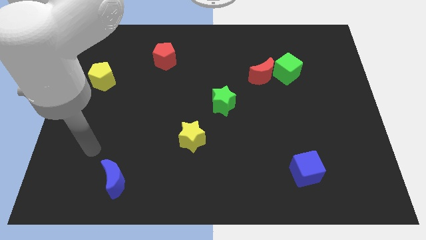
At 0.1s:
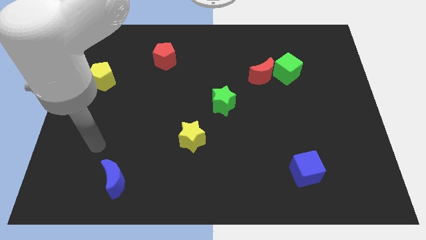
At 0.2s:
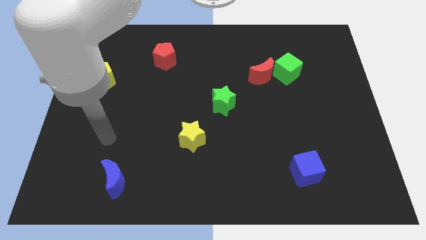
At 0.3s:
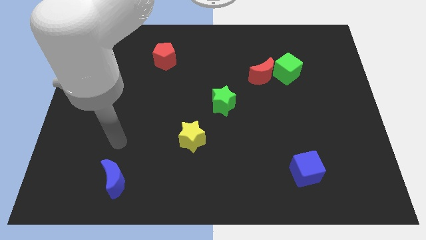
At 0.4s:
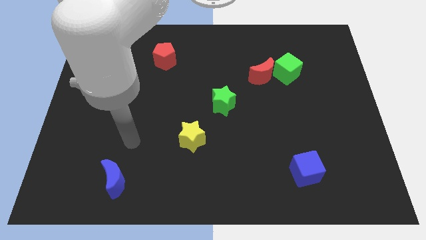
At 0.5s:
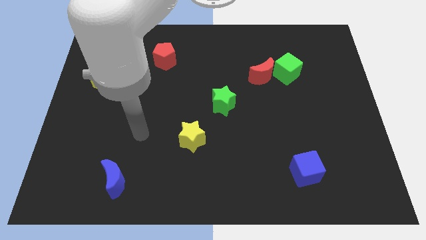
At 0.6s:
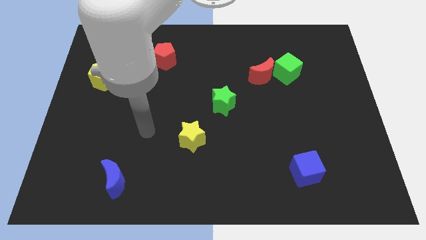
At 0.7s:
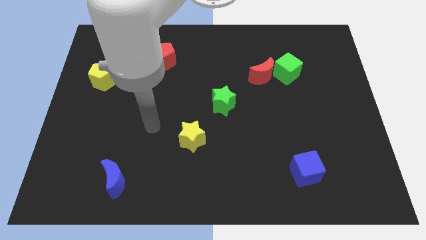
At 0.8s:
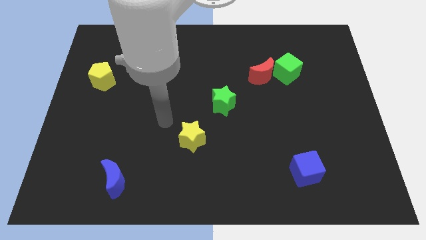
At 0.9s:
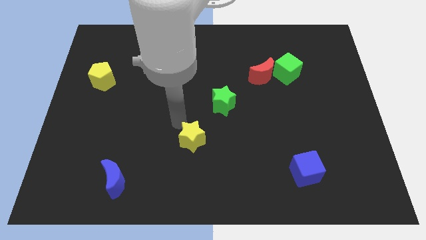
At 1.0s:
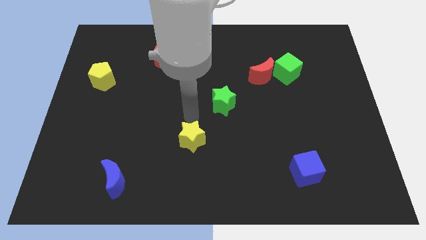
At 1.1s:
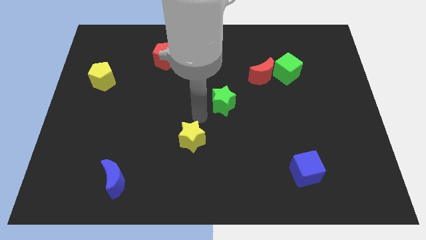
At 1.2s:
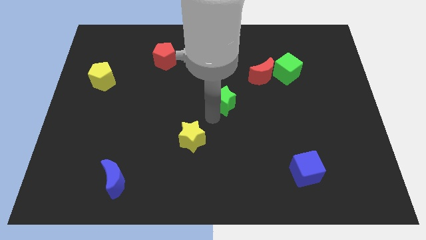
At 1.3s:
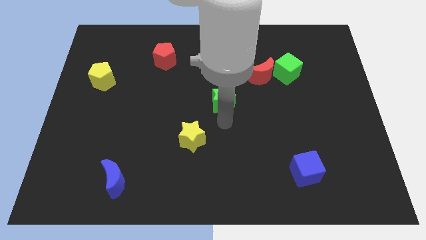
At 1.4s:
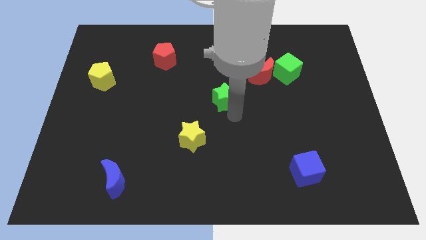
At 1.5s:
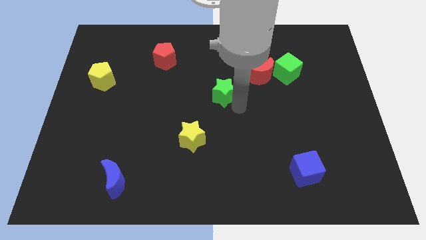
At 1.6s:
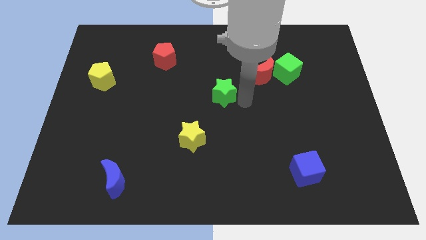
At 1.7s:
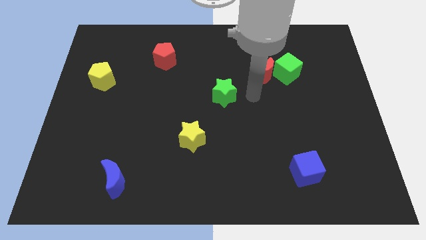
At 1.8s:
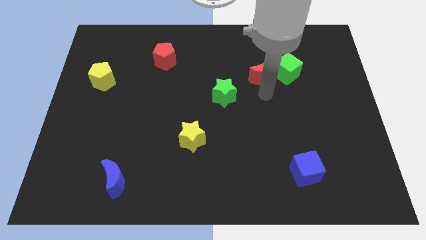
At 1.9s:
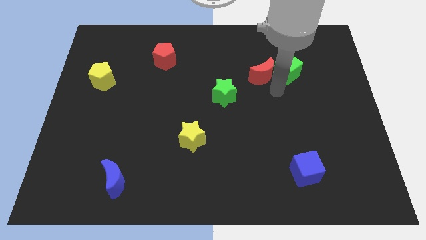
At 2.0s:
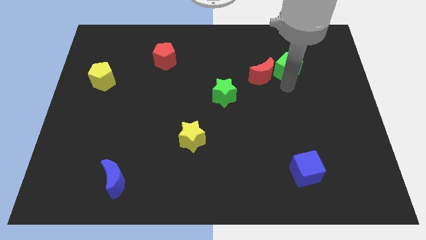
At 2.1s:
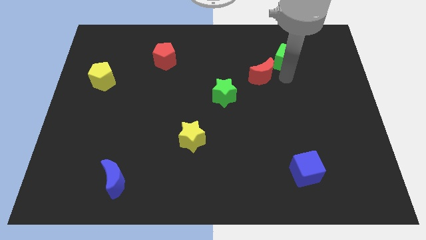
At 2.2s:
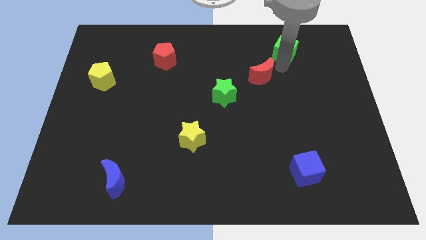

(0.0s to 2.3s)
separate the red moon from the green cube

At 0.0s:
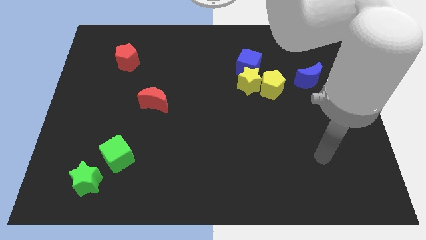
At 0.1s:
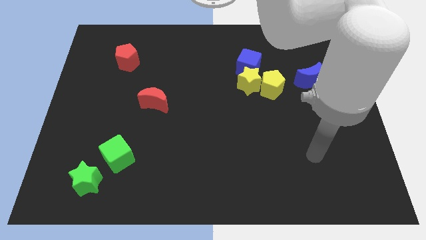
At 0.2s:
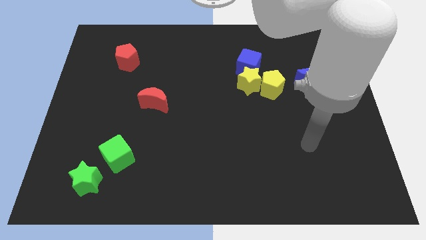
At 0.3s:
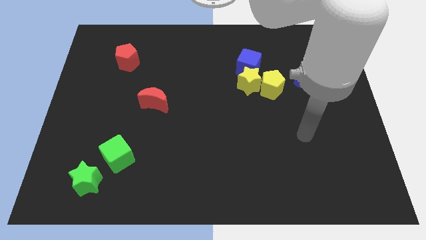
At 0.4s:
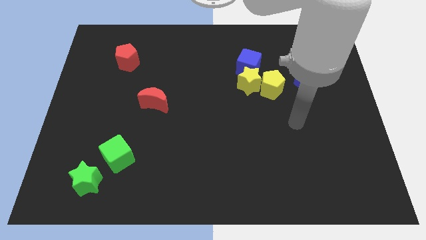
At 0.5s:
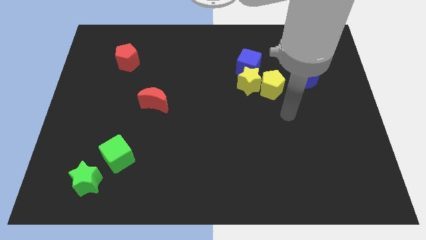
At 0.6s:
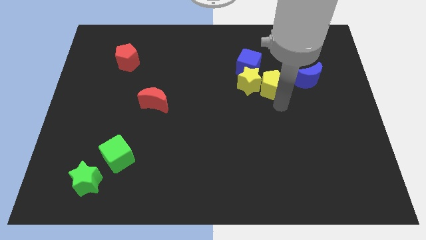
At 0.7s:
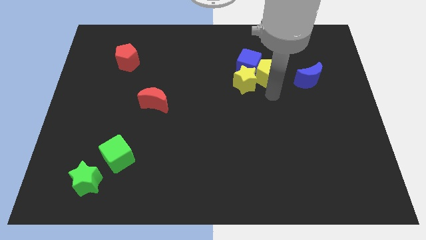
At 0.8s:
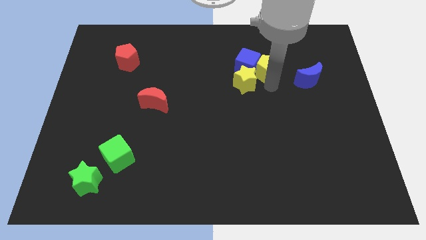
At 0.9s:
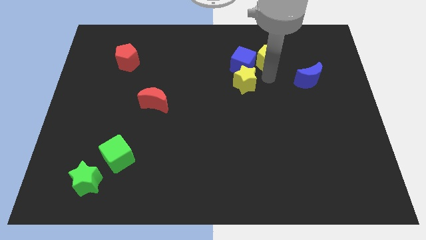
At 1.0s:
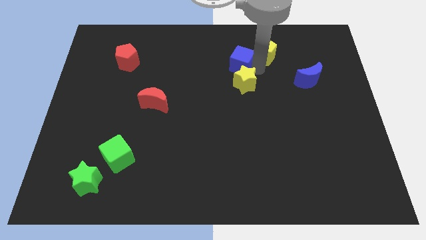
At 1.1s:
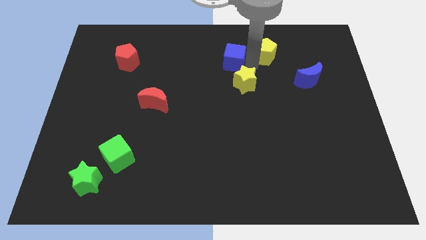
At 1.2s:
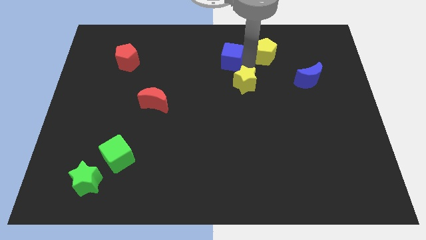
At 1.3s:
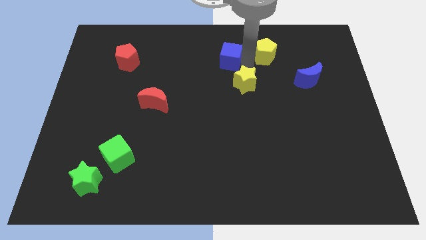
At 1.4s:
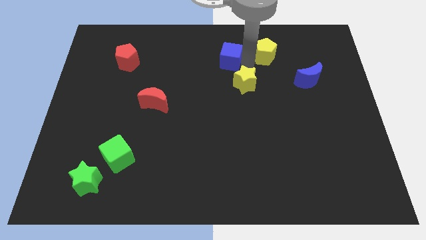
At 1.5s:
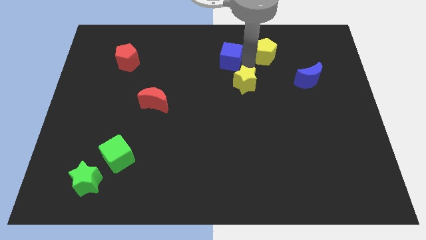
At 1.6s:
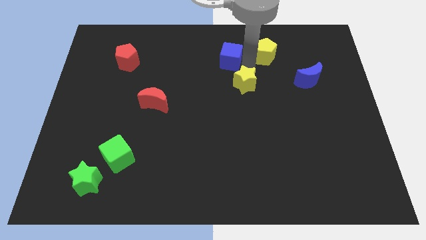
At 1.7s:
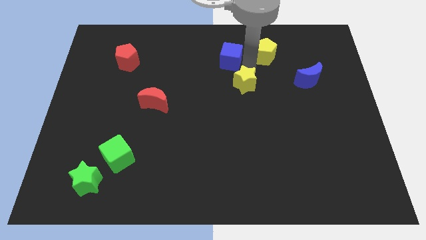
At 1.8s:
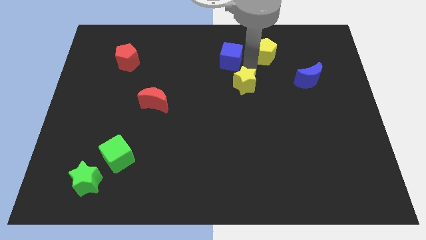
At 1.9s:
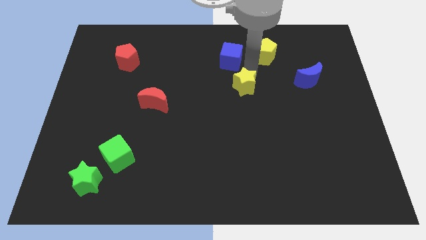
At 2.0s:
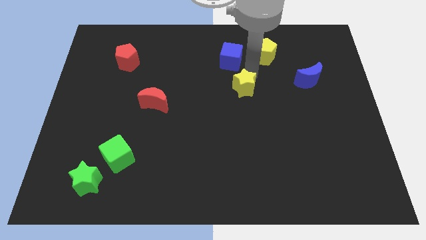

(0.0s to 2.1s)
move the yellow star away from the yellow pentagon and blue cube

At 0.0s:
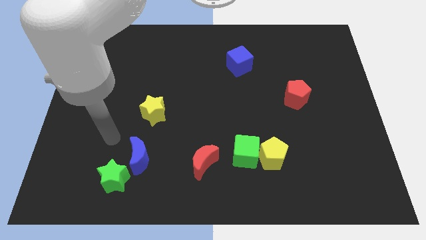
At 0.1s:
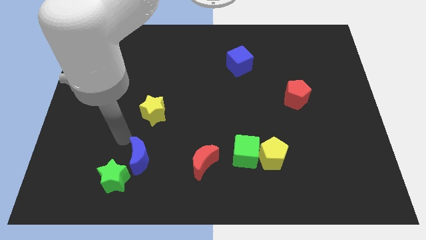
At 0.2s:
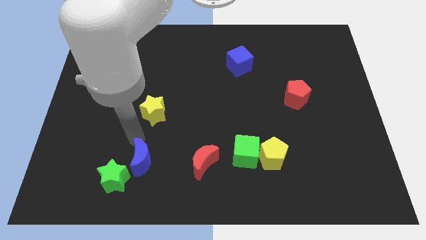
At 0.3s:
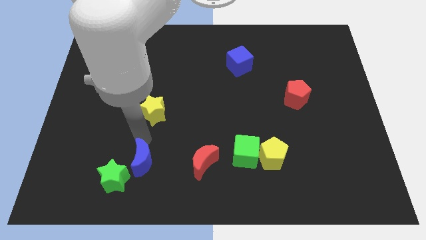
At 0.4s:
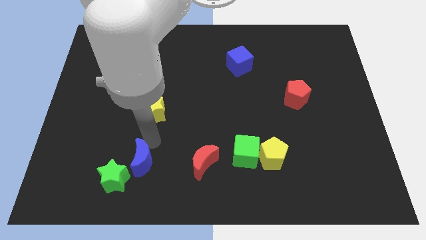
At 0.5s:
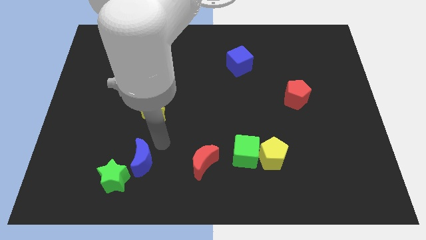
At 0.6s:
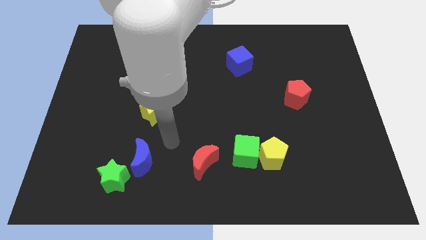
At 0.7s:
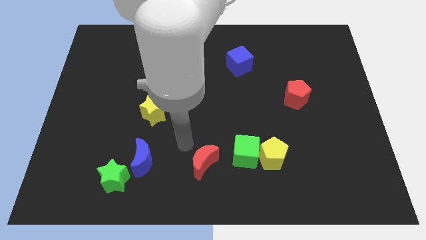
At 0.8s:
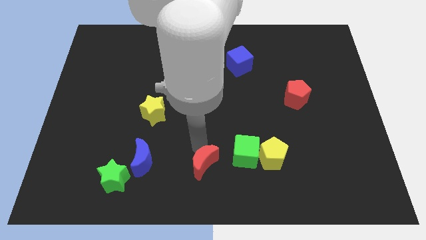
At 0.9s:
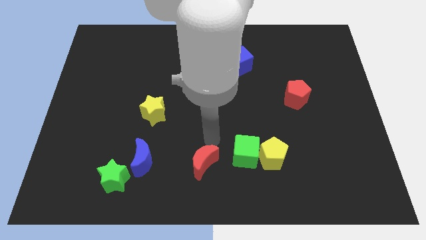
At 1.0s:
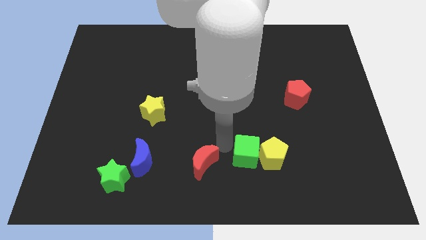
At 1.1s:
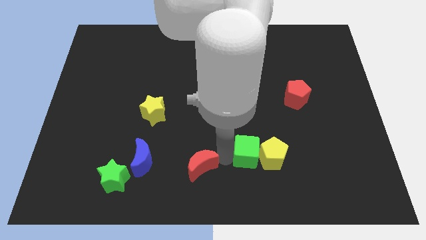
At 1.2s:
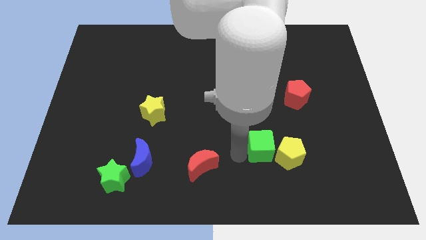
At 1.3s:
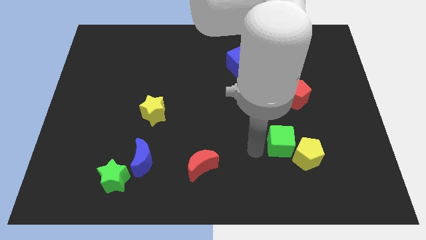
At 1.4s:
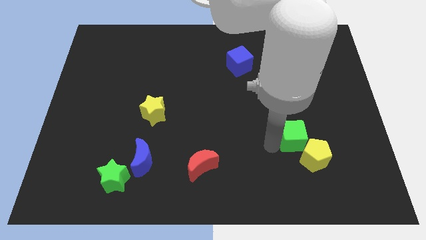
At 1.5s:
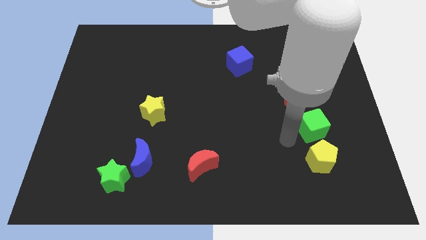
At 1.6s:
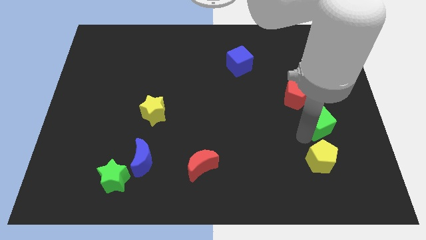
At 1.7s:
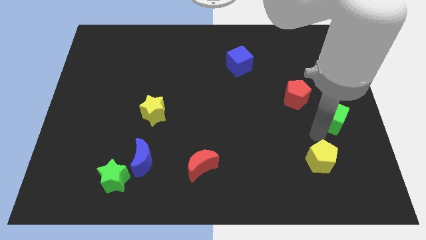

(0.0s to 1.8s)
separate the yellow pentagon from the green cube

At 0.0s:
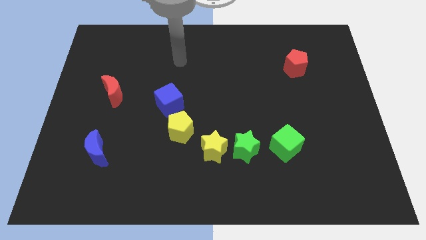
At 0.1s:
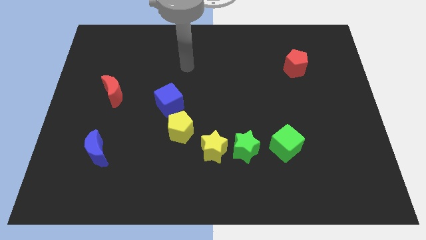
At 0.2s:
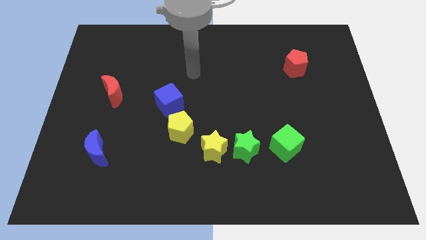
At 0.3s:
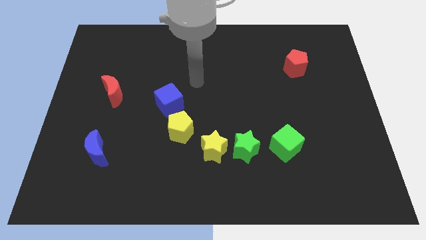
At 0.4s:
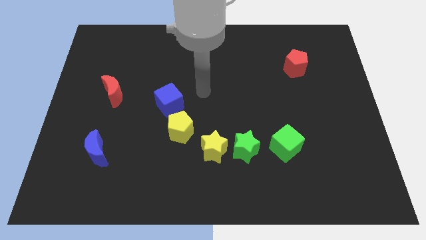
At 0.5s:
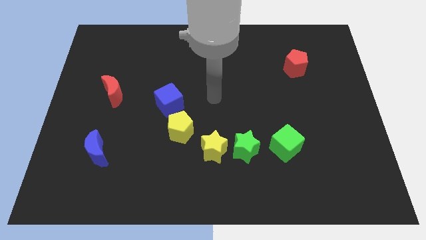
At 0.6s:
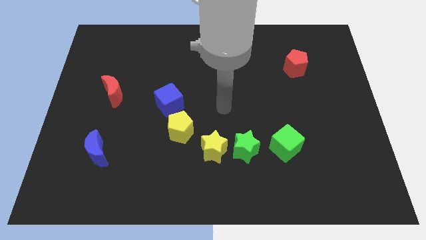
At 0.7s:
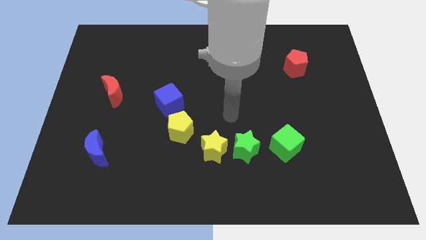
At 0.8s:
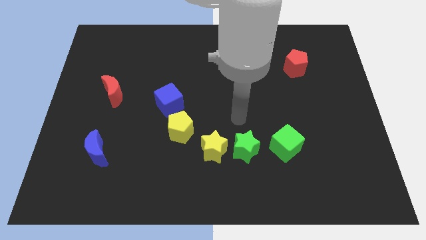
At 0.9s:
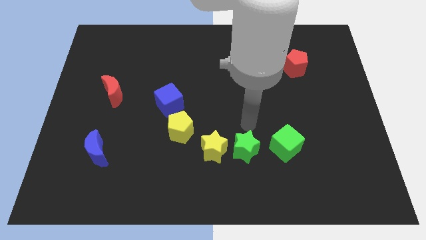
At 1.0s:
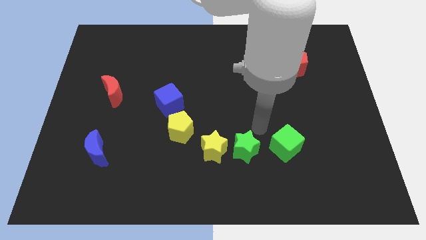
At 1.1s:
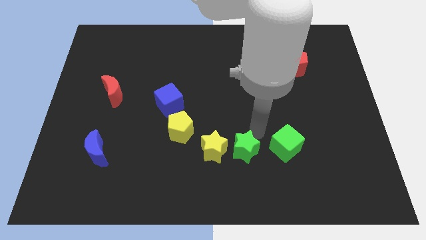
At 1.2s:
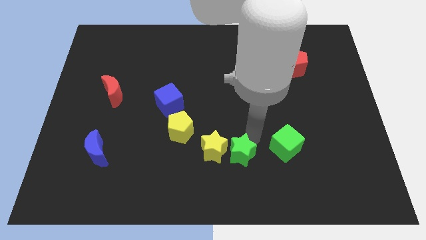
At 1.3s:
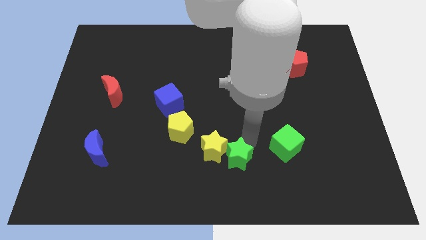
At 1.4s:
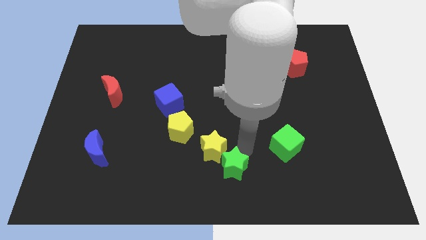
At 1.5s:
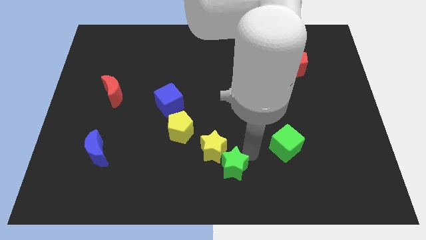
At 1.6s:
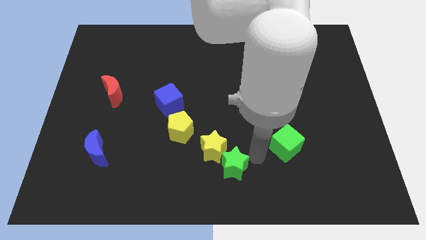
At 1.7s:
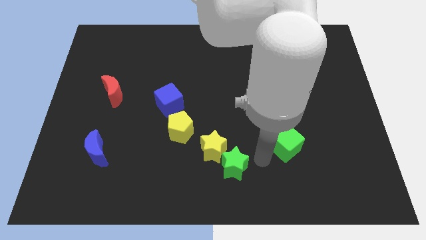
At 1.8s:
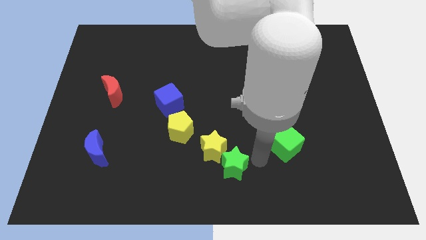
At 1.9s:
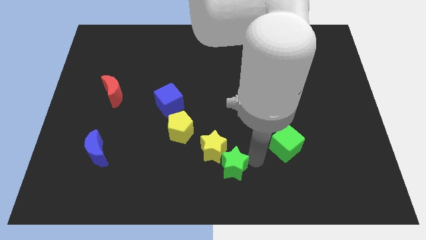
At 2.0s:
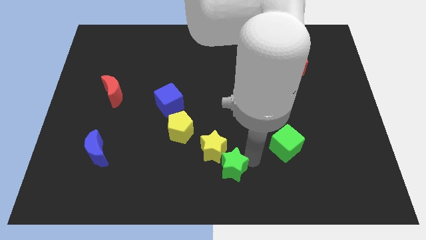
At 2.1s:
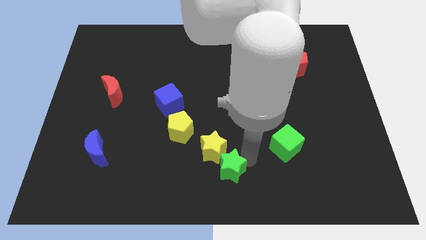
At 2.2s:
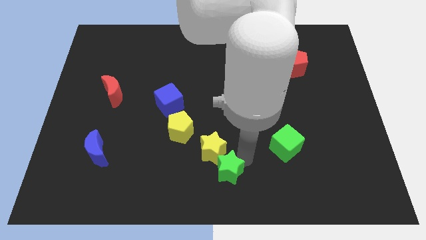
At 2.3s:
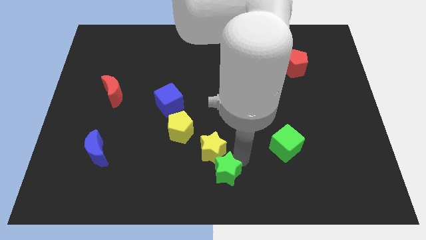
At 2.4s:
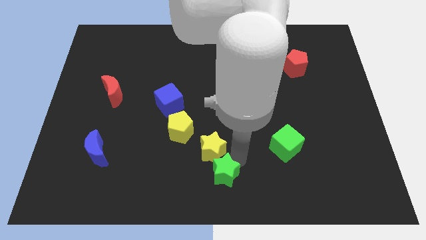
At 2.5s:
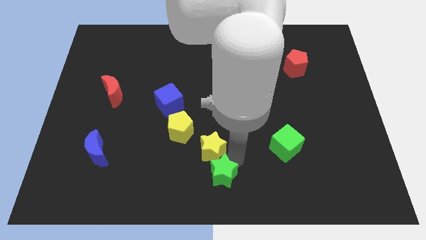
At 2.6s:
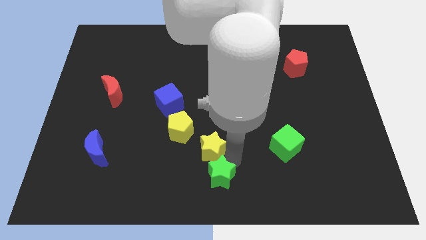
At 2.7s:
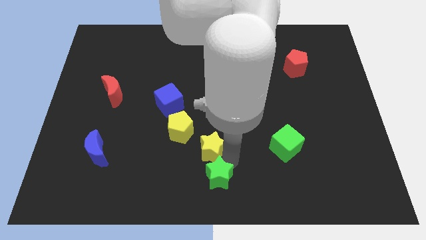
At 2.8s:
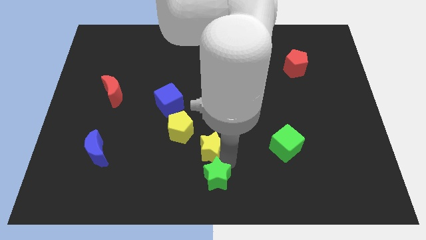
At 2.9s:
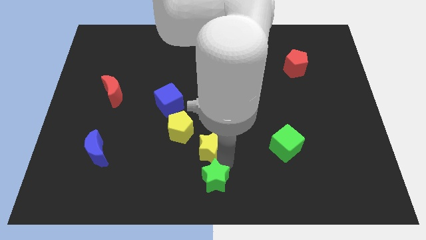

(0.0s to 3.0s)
move the green star away from the yellow star and green cube

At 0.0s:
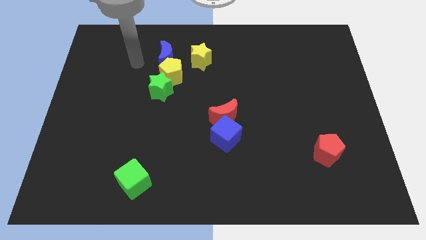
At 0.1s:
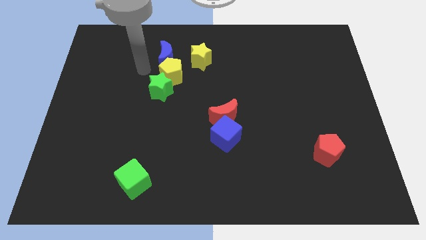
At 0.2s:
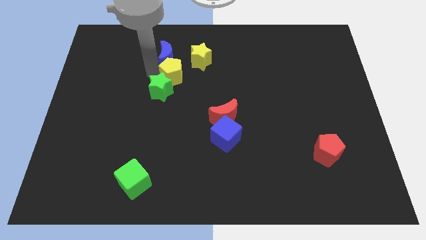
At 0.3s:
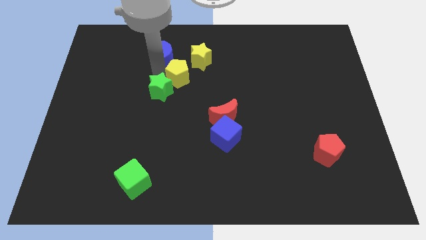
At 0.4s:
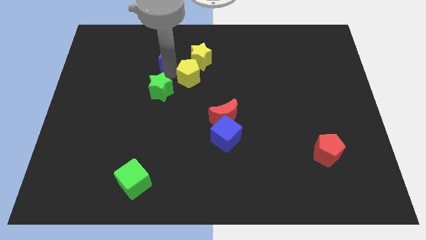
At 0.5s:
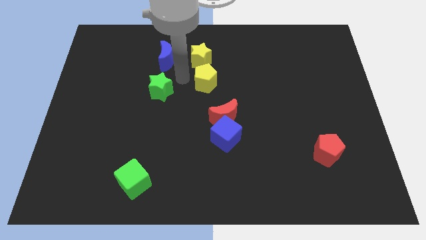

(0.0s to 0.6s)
separate the green star from the yellow pentagon
